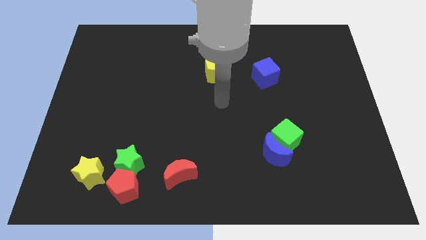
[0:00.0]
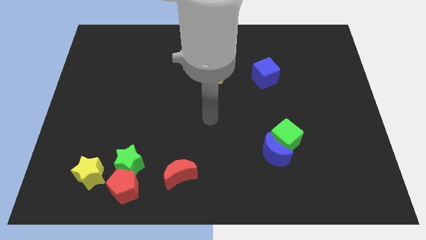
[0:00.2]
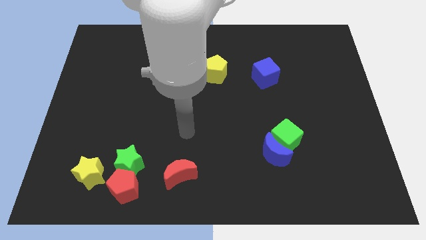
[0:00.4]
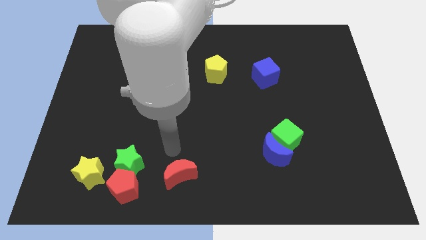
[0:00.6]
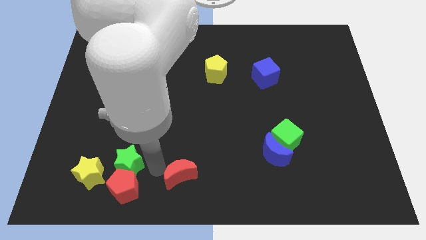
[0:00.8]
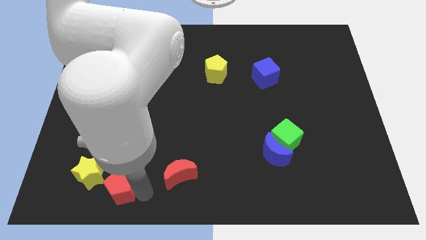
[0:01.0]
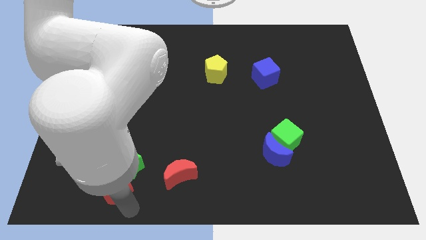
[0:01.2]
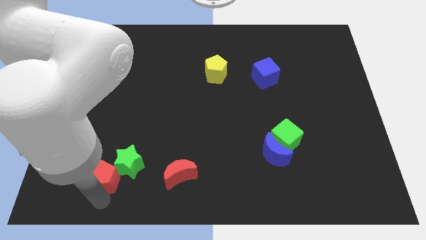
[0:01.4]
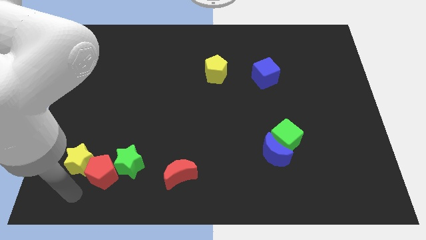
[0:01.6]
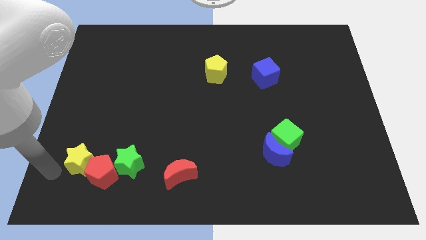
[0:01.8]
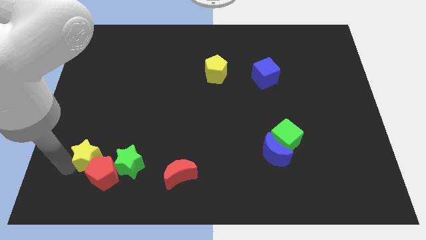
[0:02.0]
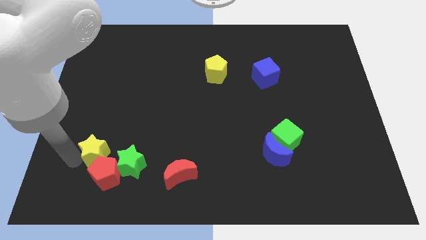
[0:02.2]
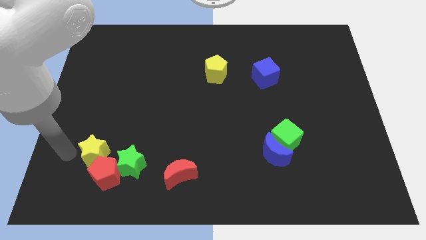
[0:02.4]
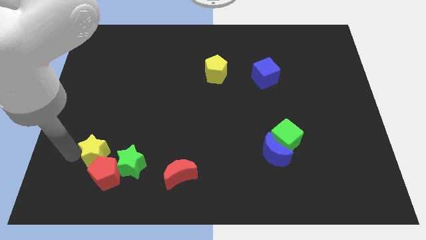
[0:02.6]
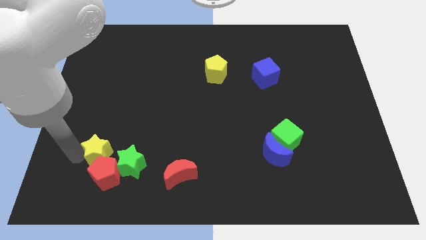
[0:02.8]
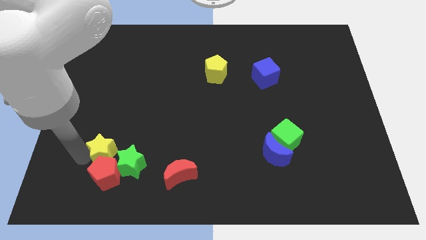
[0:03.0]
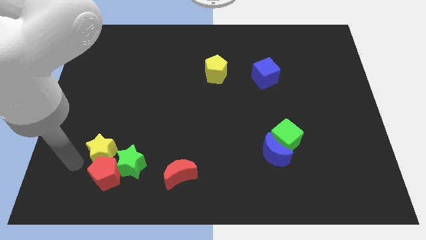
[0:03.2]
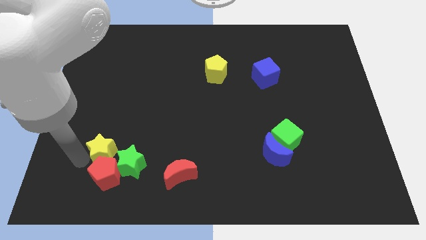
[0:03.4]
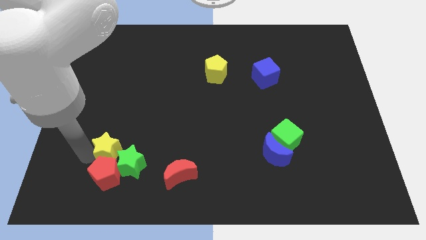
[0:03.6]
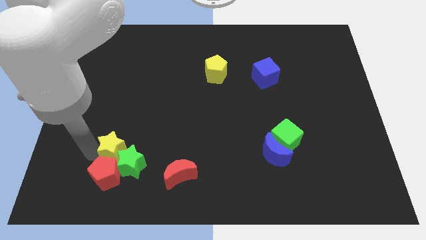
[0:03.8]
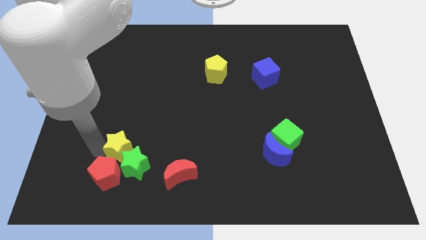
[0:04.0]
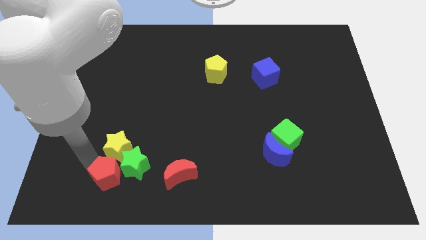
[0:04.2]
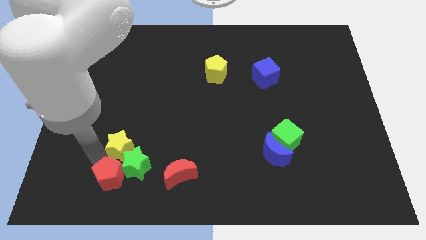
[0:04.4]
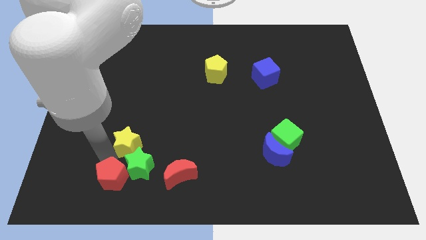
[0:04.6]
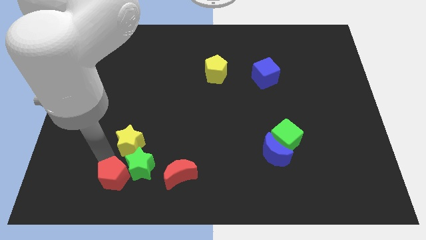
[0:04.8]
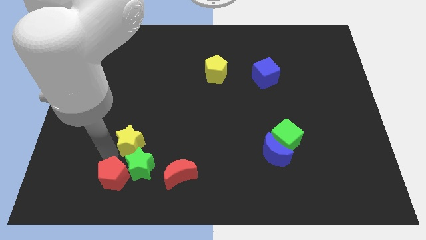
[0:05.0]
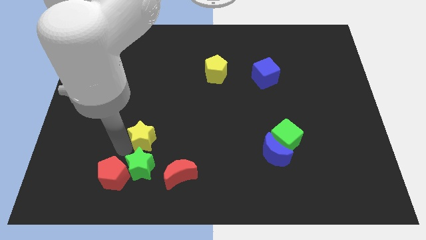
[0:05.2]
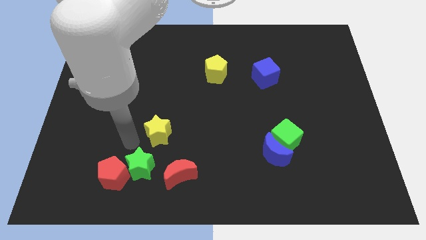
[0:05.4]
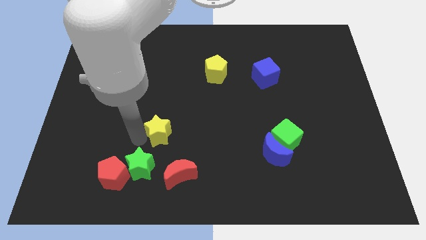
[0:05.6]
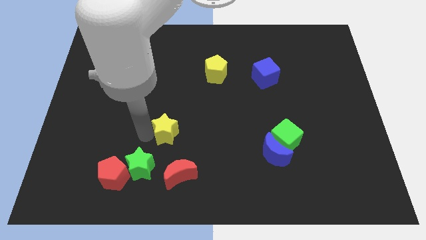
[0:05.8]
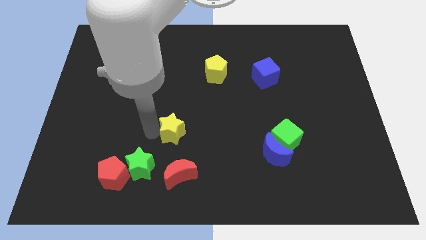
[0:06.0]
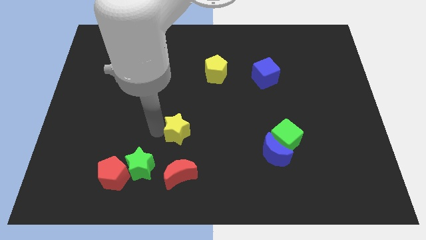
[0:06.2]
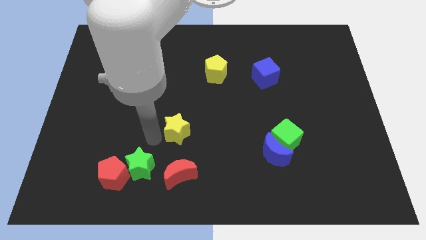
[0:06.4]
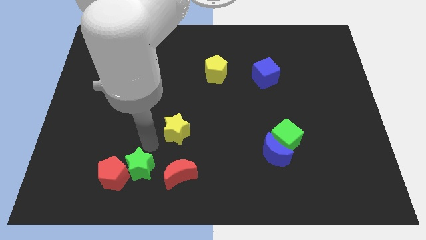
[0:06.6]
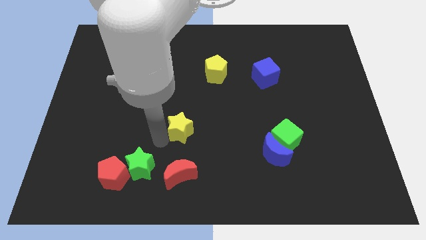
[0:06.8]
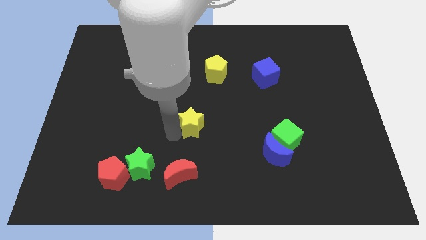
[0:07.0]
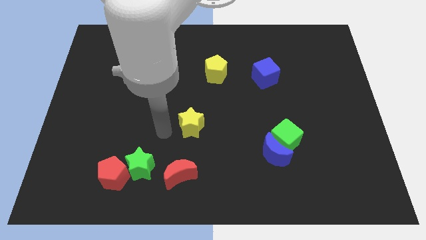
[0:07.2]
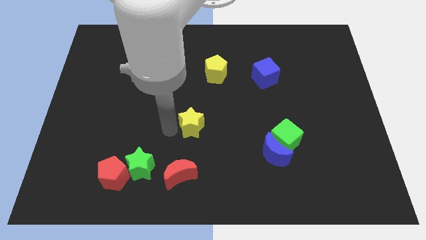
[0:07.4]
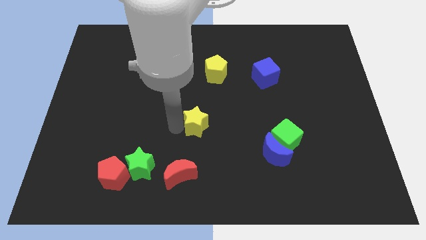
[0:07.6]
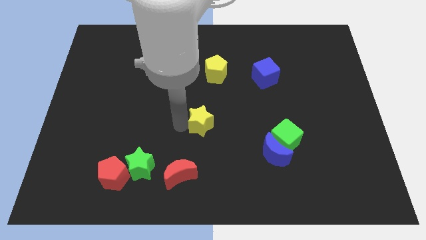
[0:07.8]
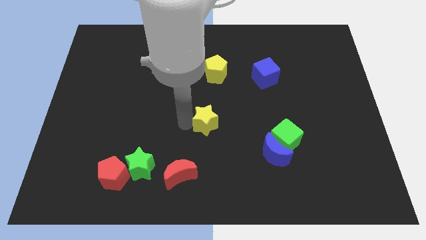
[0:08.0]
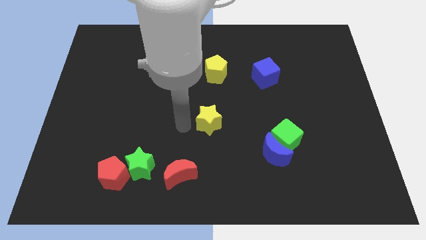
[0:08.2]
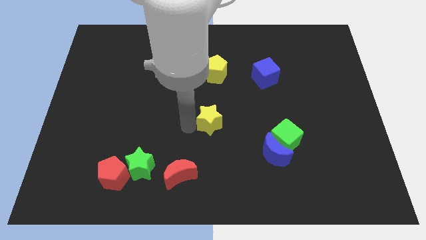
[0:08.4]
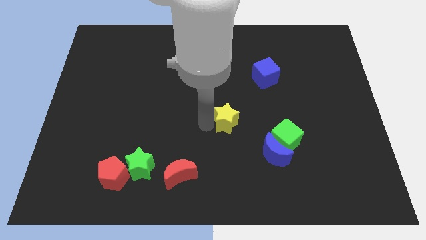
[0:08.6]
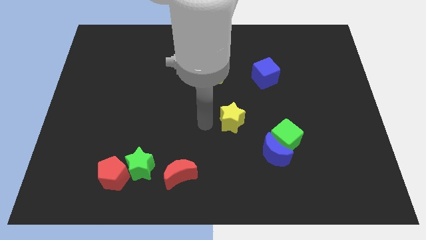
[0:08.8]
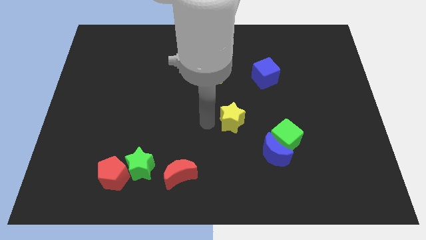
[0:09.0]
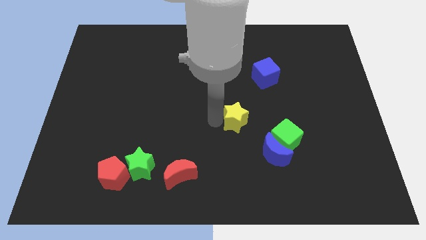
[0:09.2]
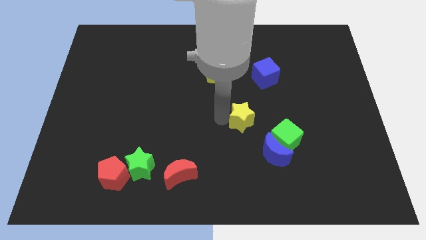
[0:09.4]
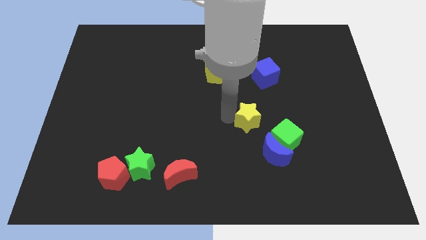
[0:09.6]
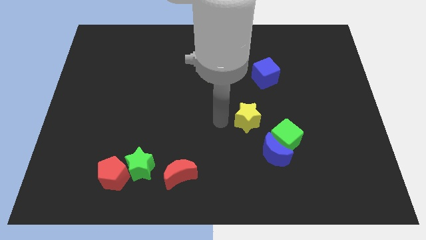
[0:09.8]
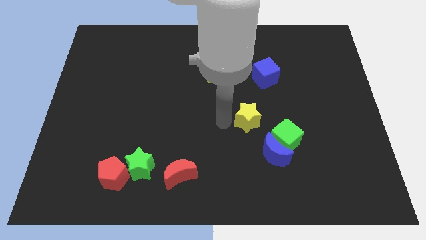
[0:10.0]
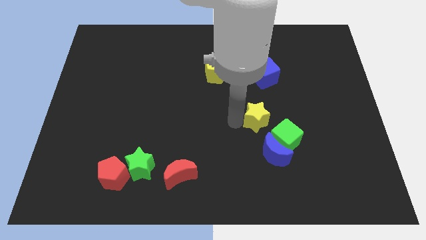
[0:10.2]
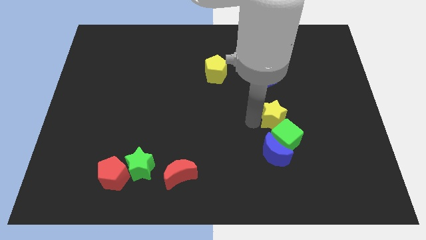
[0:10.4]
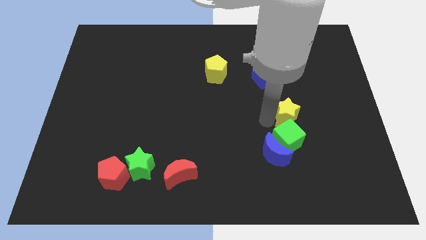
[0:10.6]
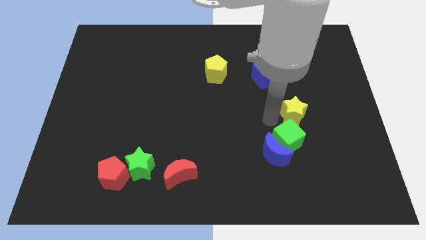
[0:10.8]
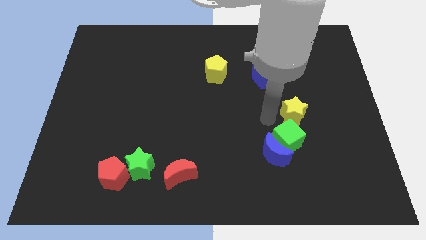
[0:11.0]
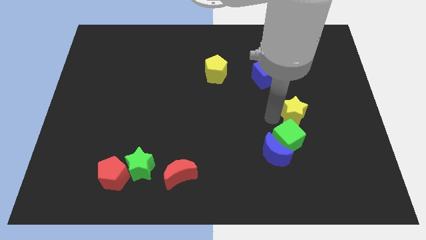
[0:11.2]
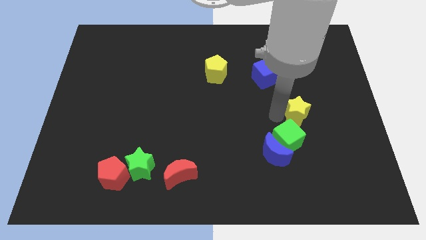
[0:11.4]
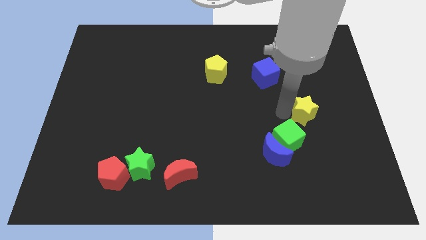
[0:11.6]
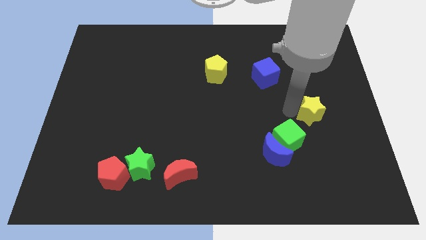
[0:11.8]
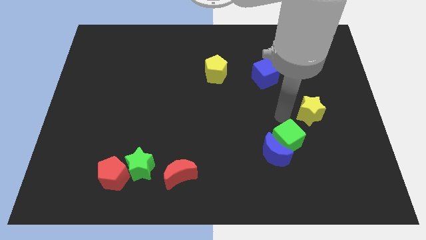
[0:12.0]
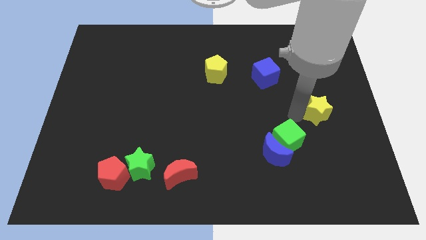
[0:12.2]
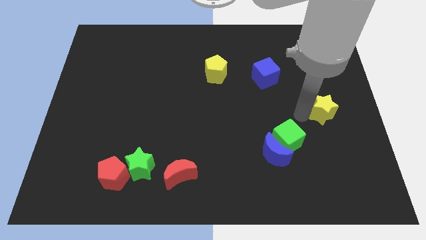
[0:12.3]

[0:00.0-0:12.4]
put the yellow star to the right side
